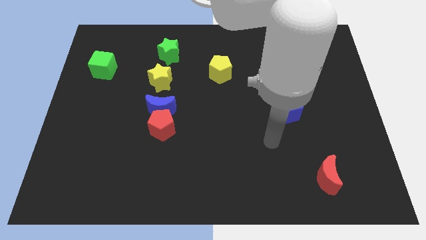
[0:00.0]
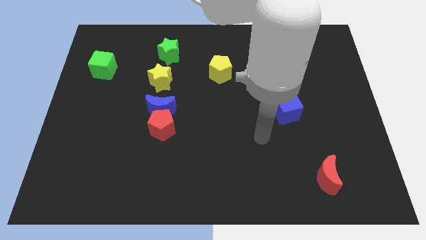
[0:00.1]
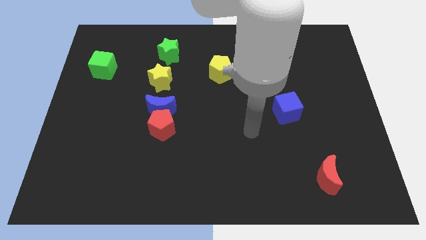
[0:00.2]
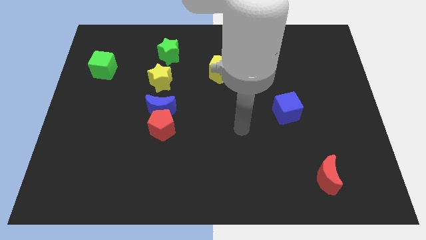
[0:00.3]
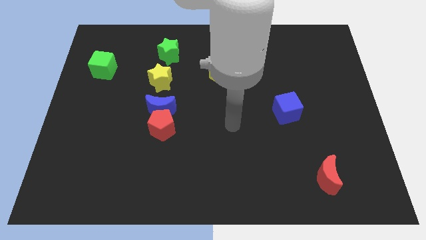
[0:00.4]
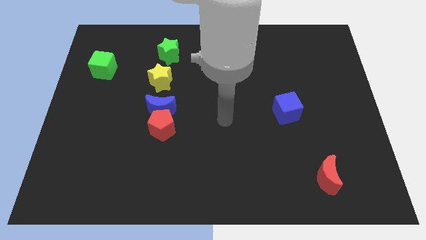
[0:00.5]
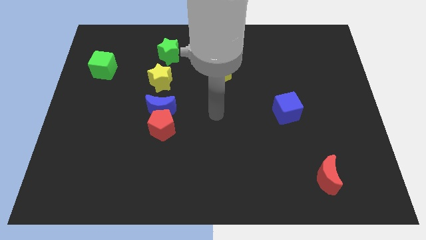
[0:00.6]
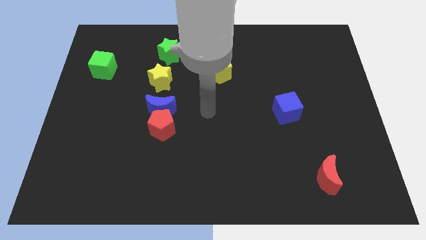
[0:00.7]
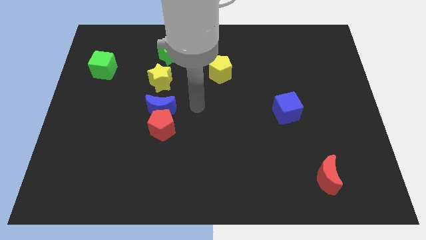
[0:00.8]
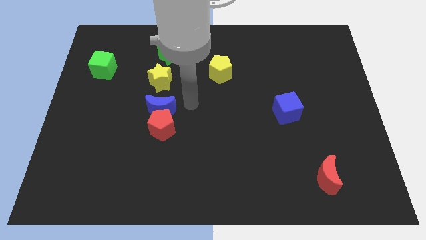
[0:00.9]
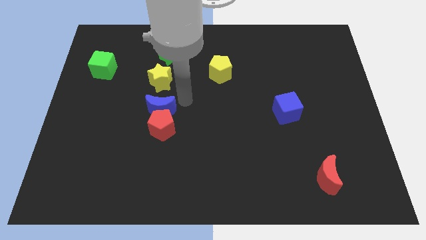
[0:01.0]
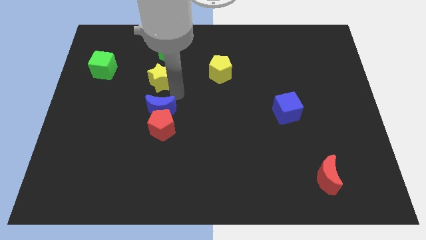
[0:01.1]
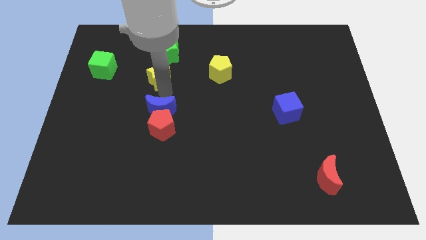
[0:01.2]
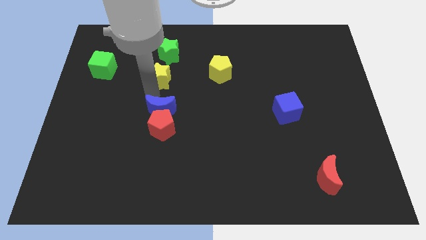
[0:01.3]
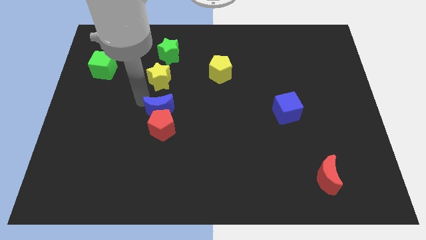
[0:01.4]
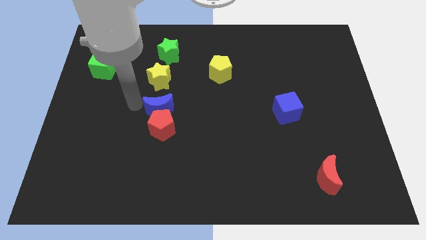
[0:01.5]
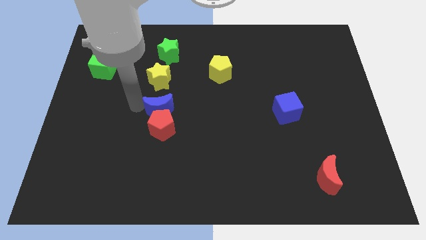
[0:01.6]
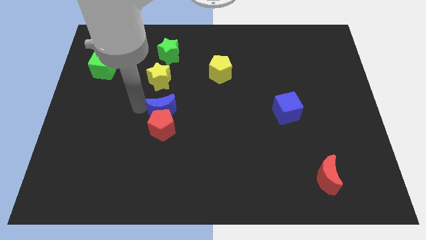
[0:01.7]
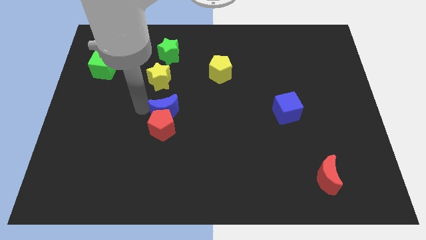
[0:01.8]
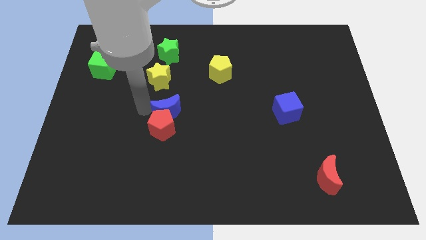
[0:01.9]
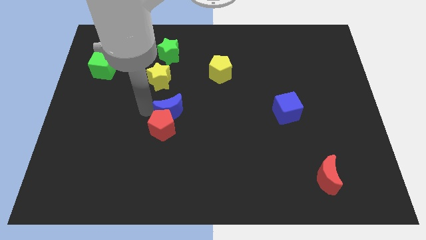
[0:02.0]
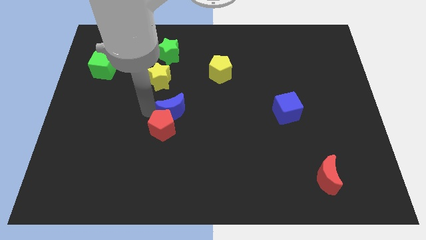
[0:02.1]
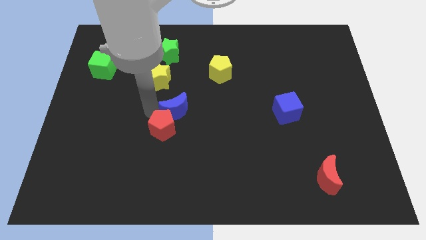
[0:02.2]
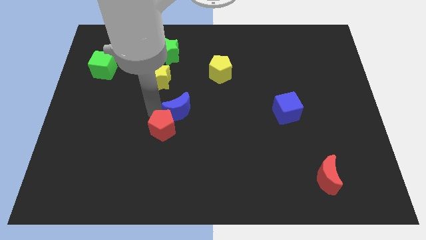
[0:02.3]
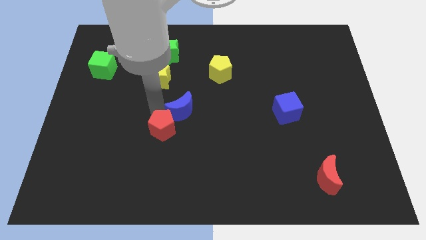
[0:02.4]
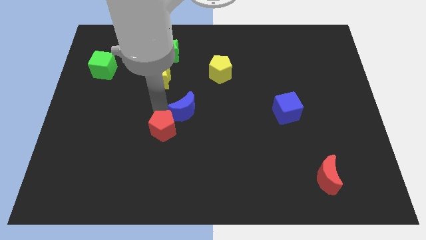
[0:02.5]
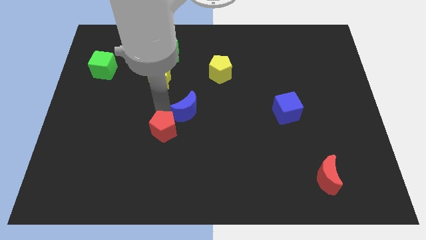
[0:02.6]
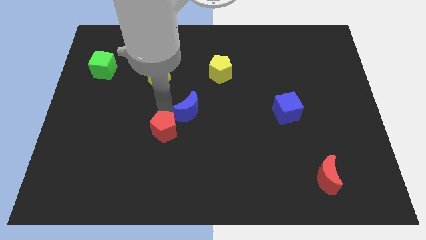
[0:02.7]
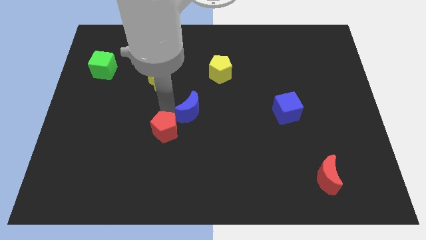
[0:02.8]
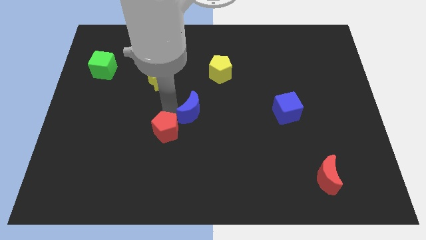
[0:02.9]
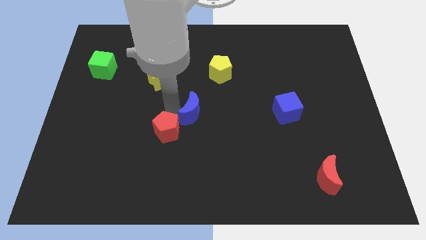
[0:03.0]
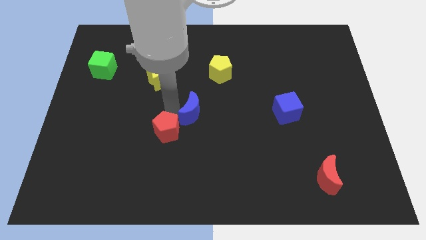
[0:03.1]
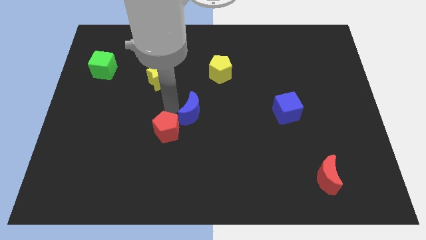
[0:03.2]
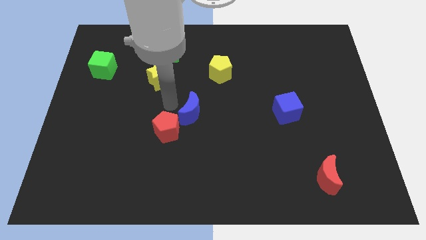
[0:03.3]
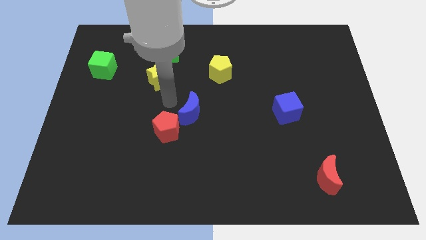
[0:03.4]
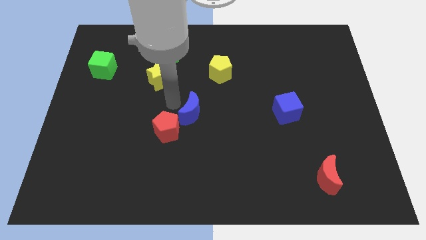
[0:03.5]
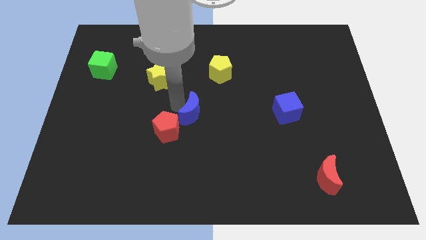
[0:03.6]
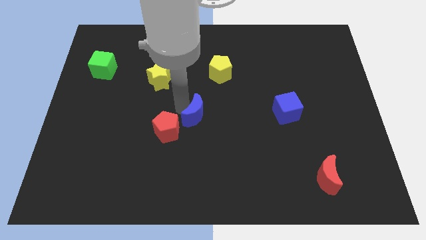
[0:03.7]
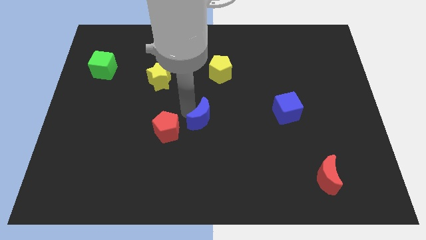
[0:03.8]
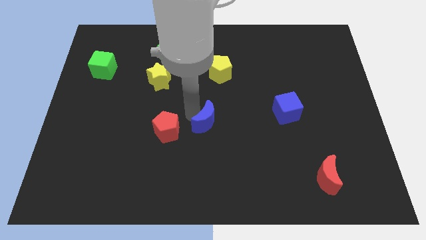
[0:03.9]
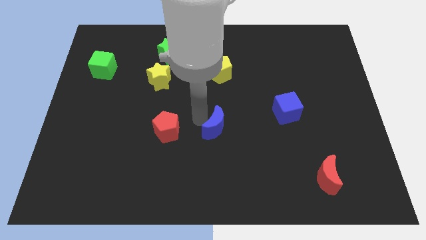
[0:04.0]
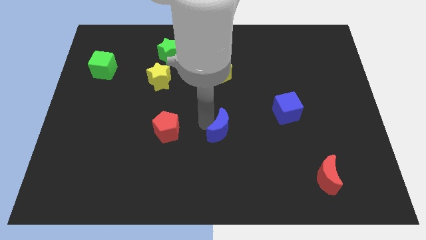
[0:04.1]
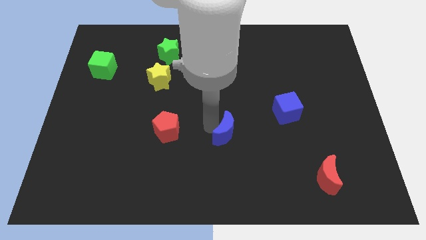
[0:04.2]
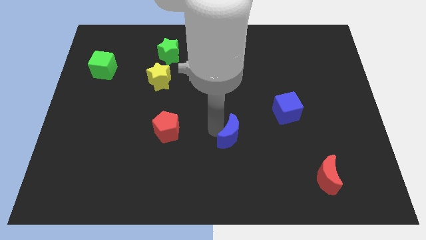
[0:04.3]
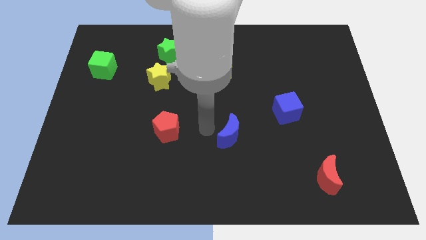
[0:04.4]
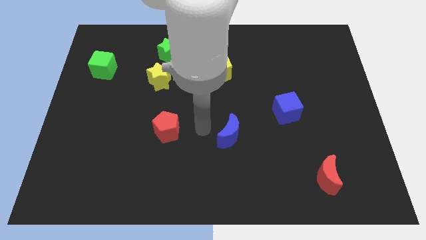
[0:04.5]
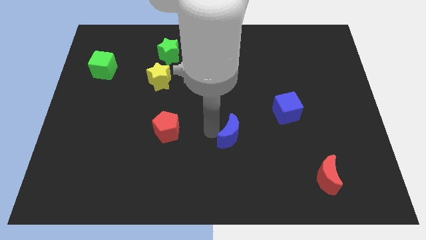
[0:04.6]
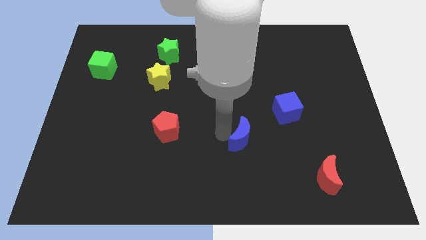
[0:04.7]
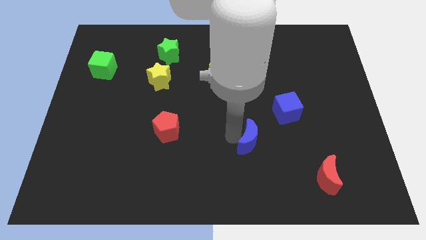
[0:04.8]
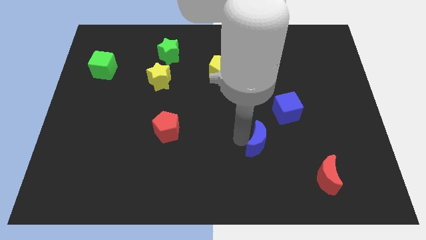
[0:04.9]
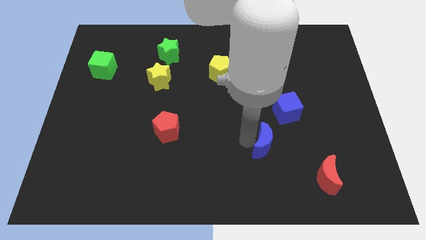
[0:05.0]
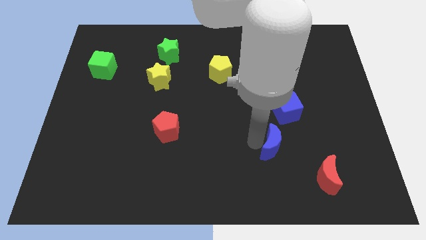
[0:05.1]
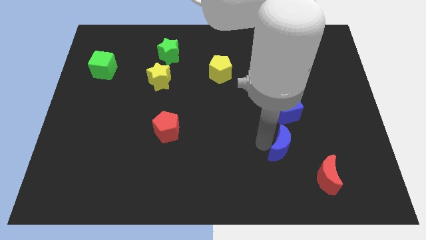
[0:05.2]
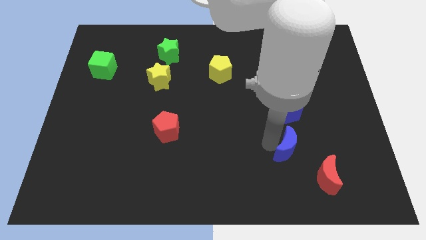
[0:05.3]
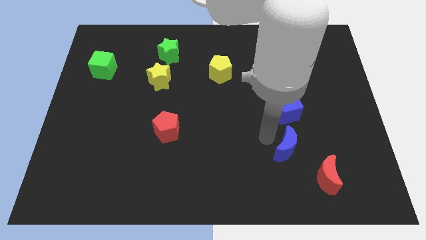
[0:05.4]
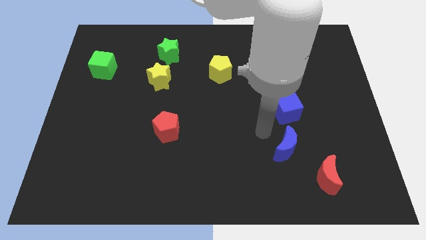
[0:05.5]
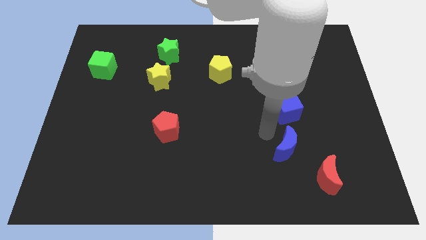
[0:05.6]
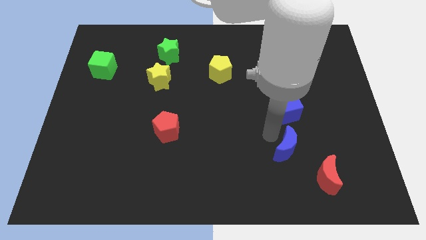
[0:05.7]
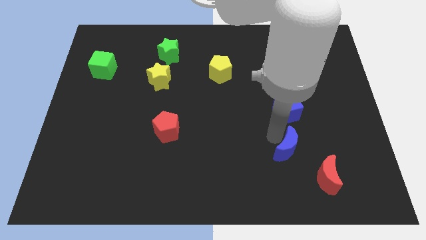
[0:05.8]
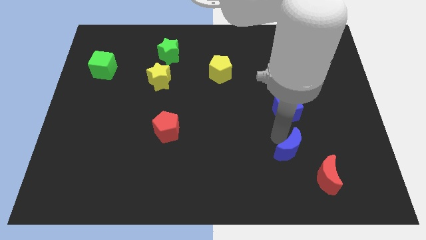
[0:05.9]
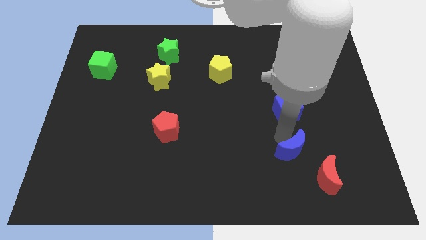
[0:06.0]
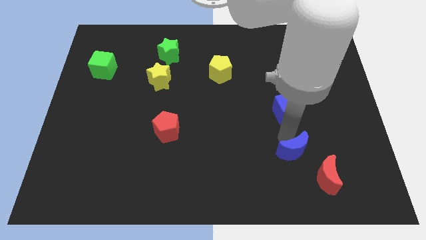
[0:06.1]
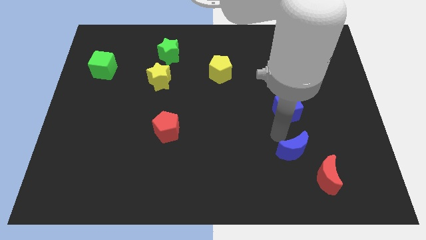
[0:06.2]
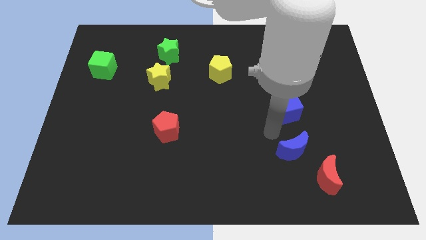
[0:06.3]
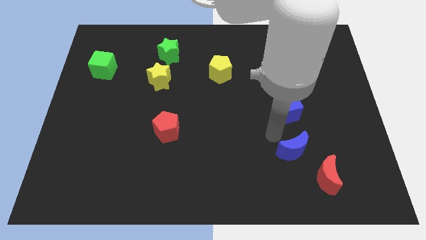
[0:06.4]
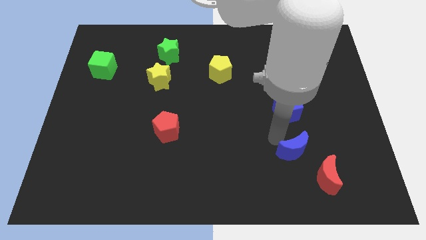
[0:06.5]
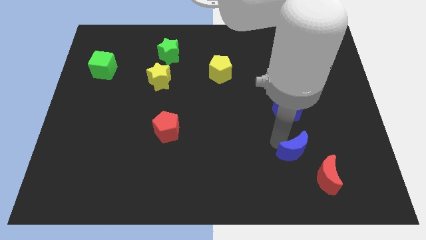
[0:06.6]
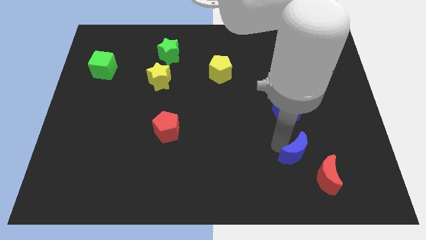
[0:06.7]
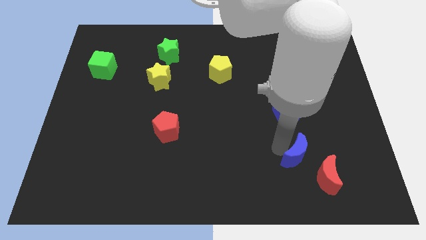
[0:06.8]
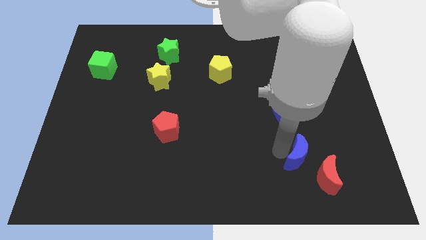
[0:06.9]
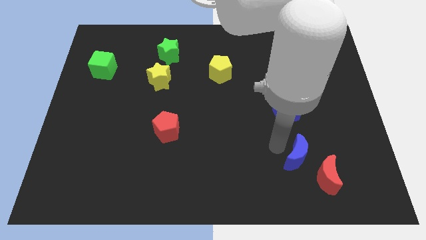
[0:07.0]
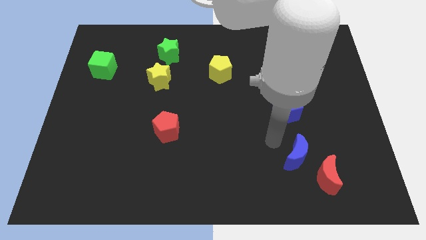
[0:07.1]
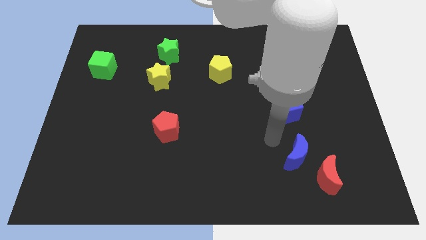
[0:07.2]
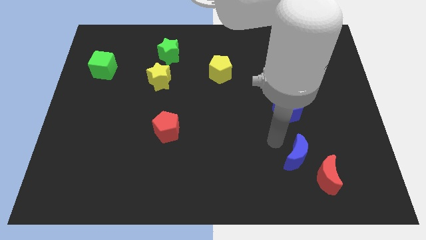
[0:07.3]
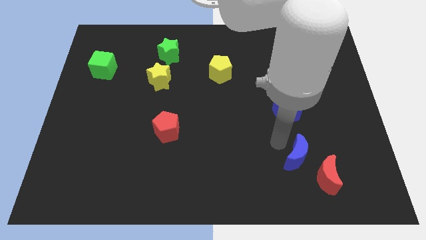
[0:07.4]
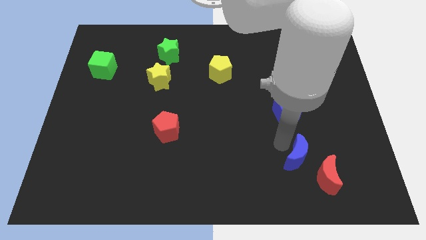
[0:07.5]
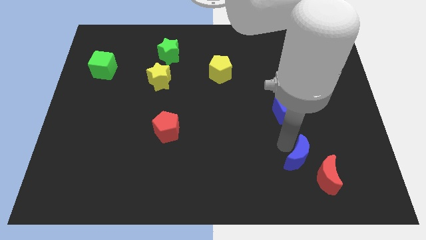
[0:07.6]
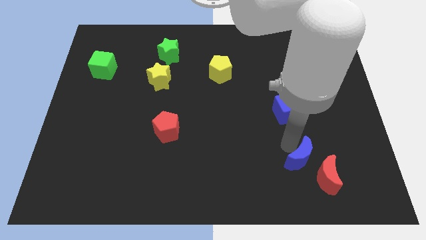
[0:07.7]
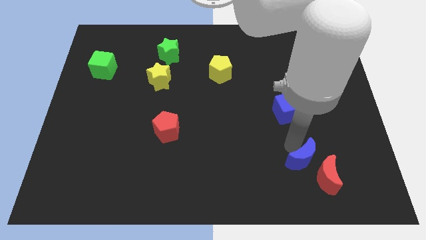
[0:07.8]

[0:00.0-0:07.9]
put the blue moon to the red moon
